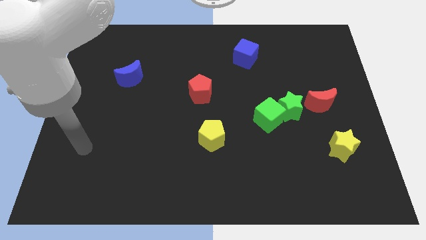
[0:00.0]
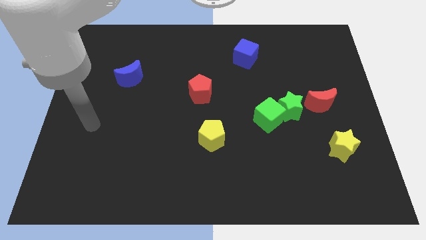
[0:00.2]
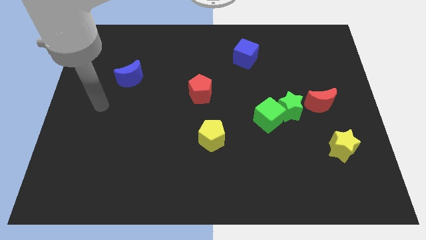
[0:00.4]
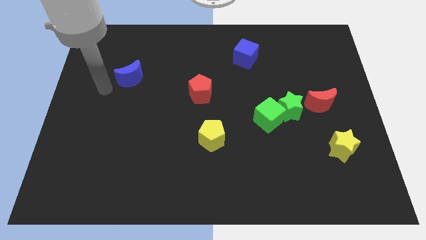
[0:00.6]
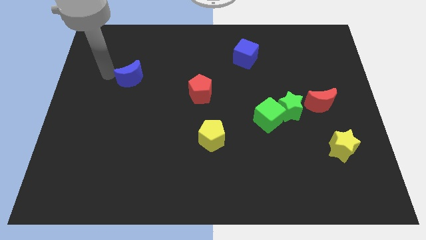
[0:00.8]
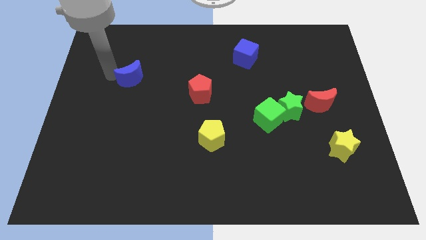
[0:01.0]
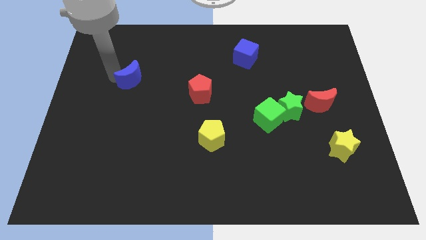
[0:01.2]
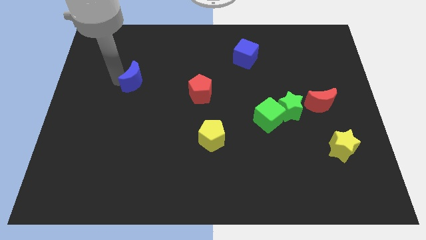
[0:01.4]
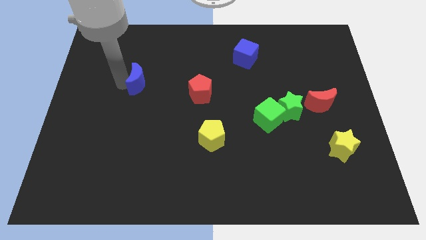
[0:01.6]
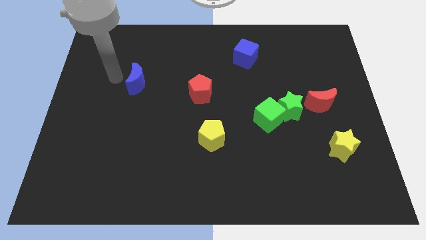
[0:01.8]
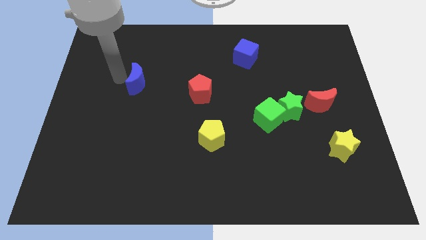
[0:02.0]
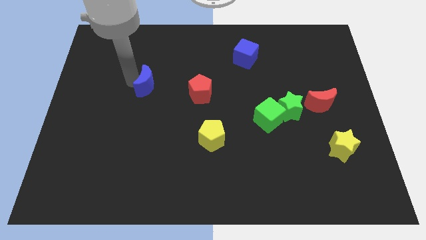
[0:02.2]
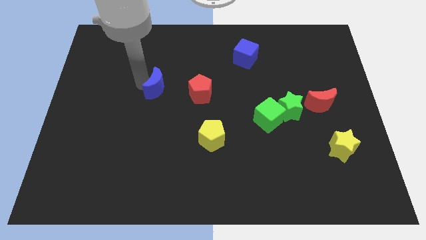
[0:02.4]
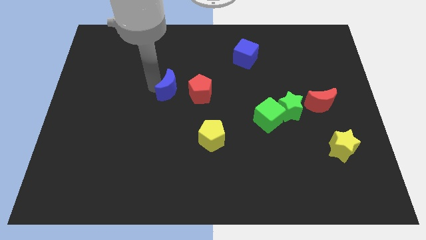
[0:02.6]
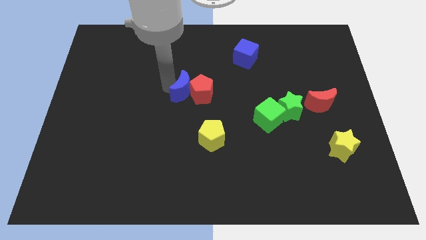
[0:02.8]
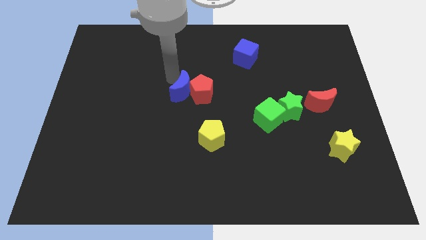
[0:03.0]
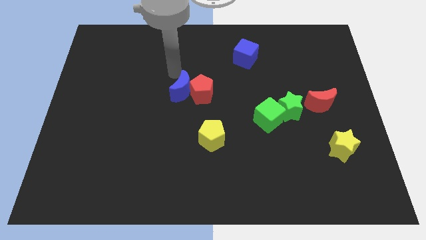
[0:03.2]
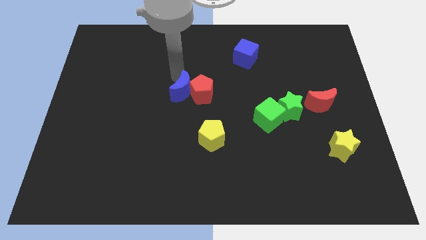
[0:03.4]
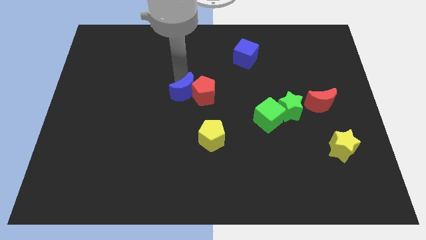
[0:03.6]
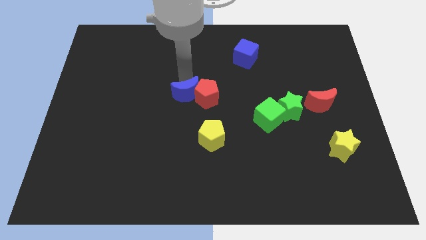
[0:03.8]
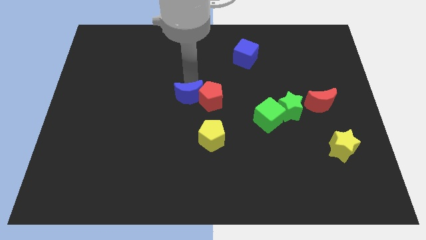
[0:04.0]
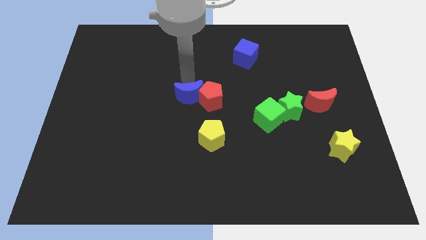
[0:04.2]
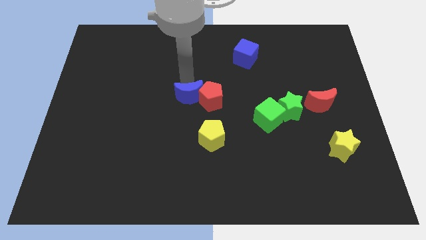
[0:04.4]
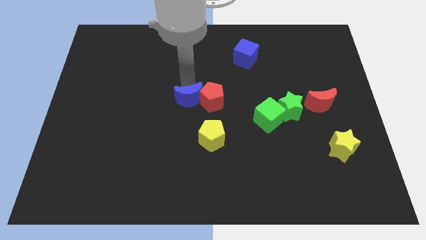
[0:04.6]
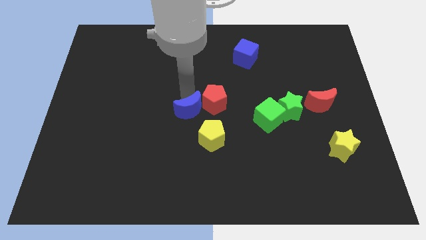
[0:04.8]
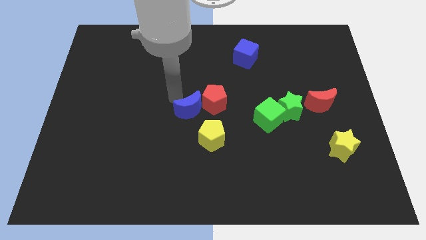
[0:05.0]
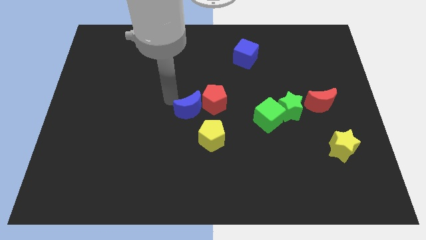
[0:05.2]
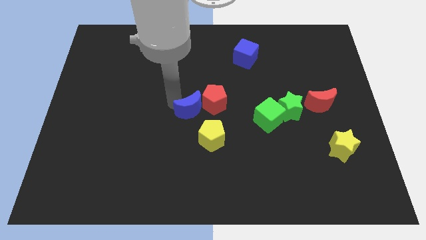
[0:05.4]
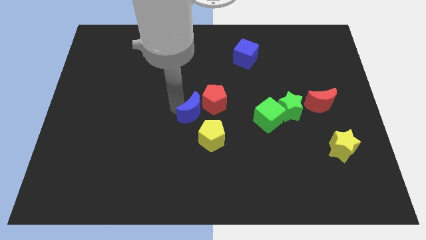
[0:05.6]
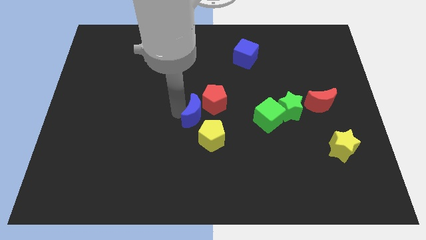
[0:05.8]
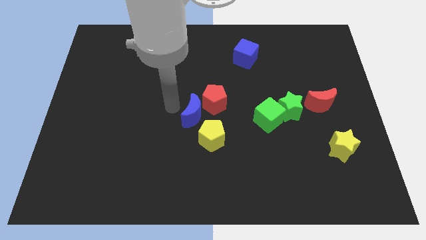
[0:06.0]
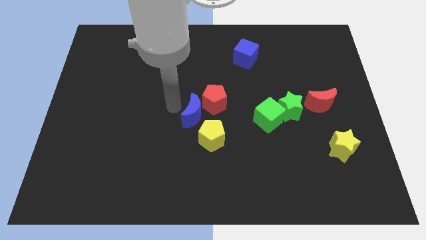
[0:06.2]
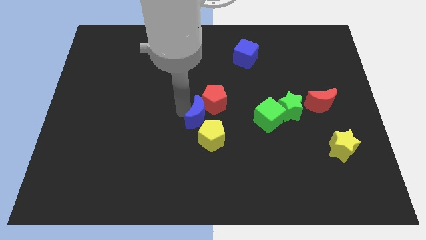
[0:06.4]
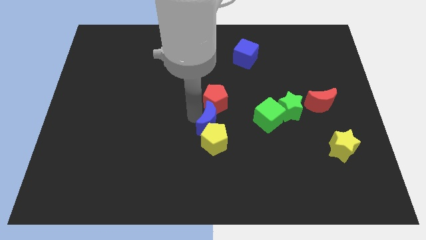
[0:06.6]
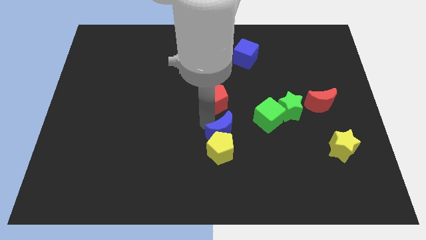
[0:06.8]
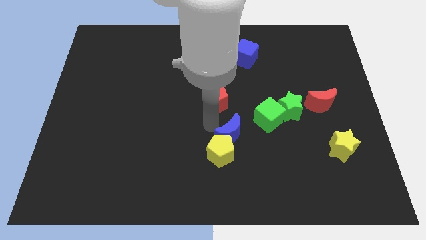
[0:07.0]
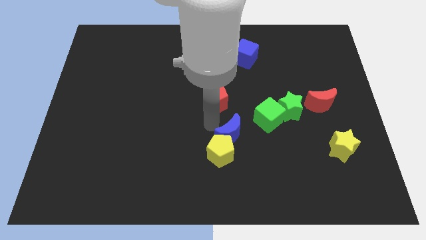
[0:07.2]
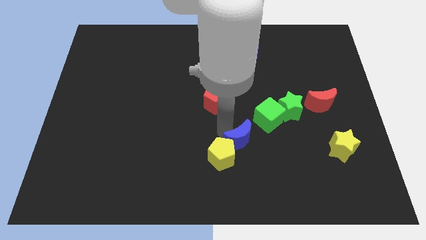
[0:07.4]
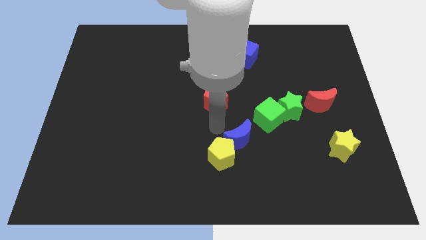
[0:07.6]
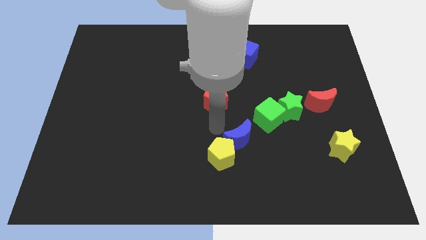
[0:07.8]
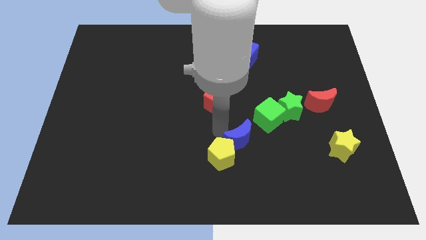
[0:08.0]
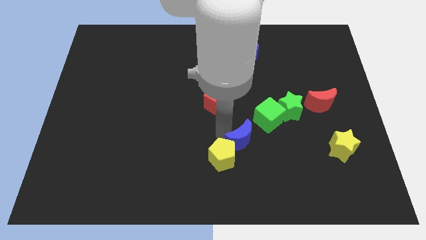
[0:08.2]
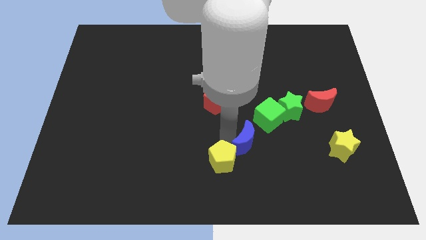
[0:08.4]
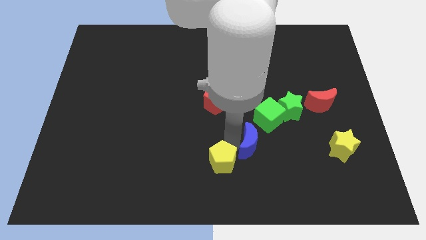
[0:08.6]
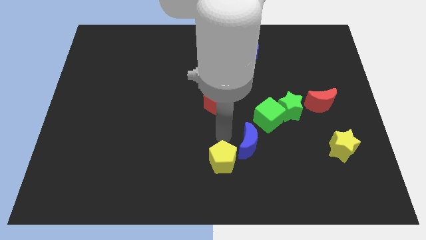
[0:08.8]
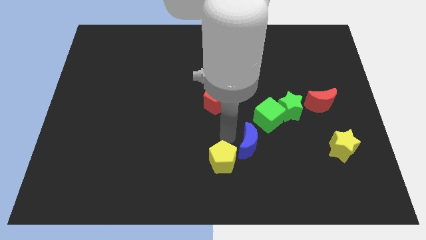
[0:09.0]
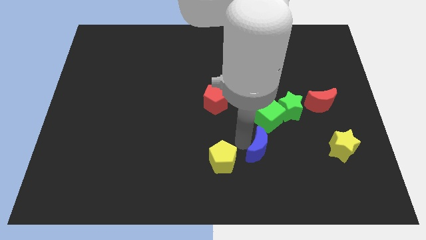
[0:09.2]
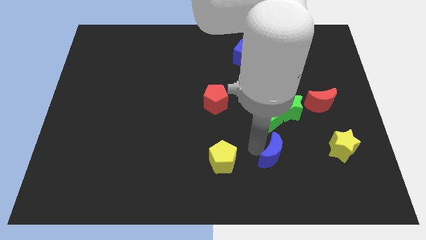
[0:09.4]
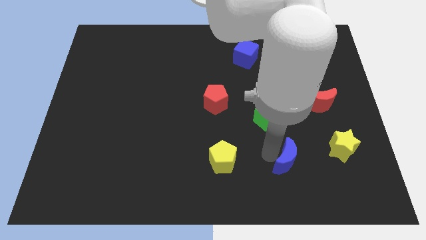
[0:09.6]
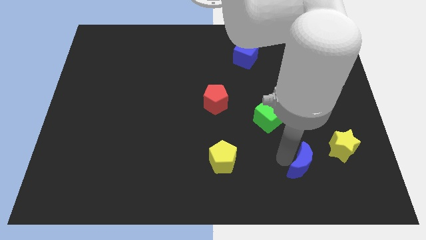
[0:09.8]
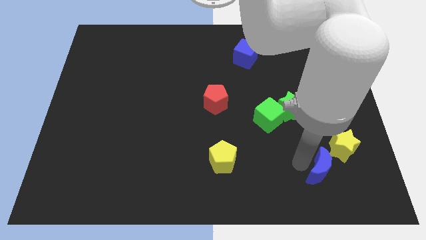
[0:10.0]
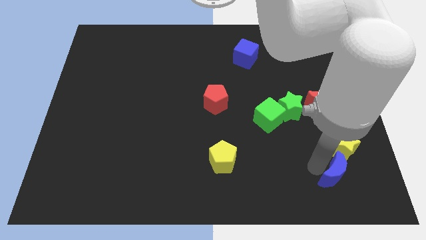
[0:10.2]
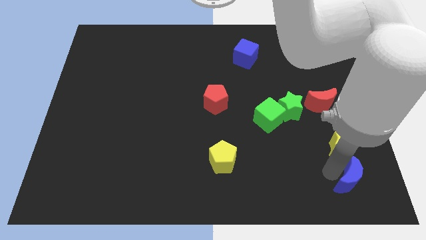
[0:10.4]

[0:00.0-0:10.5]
move the blue moon to the bottom right of the board

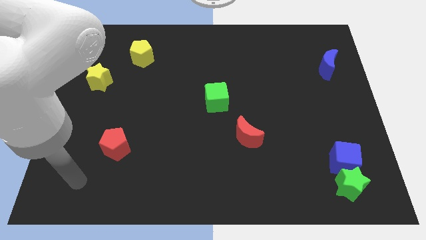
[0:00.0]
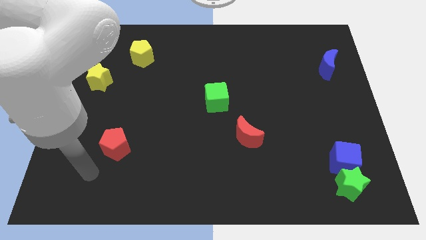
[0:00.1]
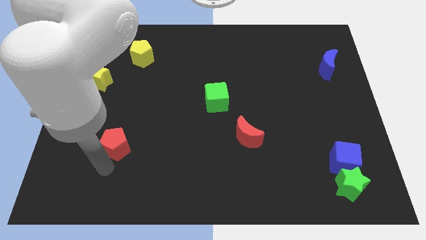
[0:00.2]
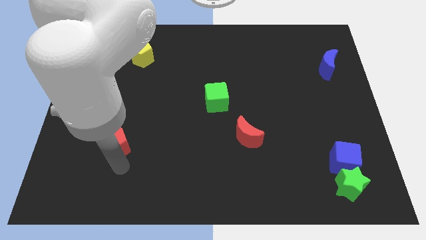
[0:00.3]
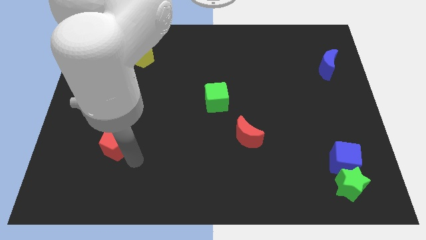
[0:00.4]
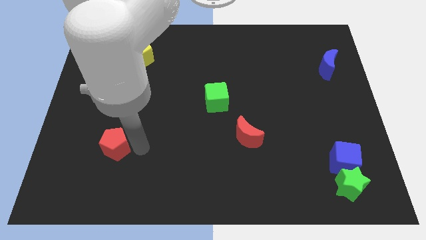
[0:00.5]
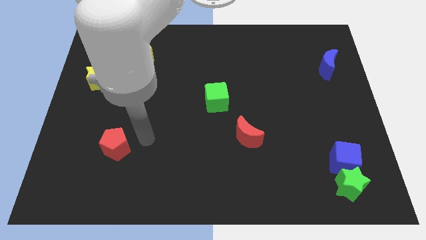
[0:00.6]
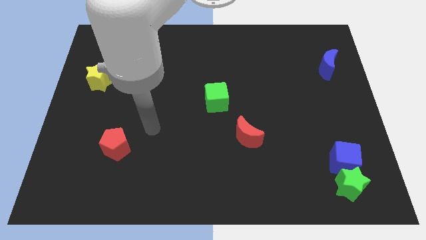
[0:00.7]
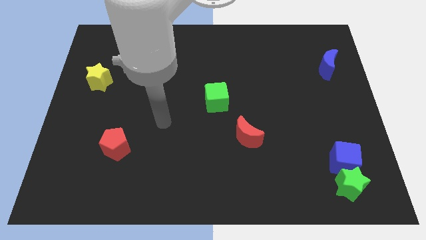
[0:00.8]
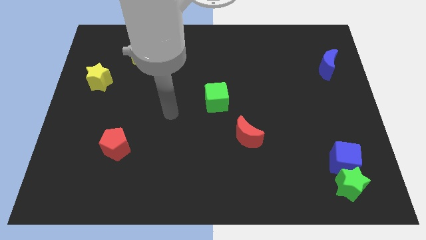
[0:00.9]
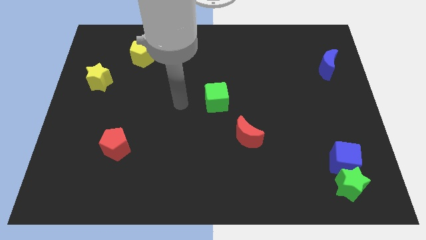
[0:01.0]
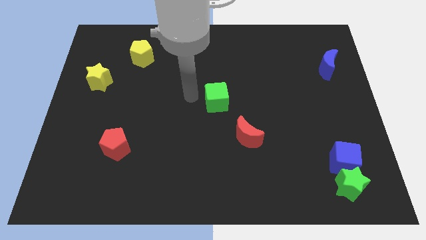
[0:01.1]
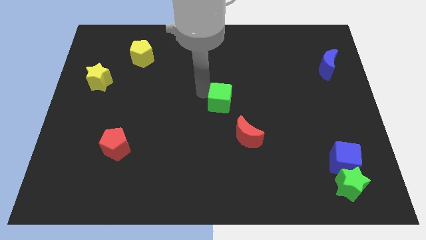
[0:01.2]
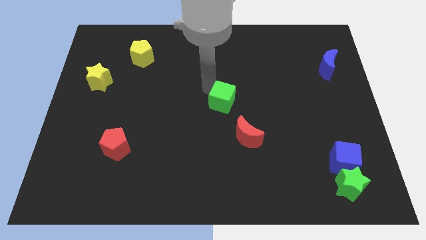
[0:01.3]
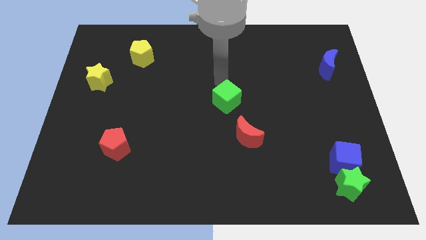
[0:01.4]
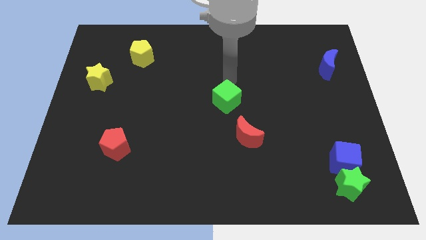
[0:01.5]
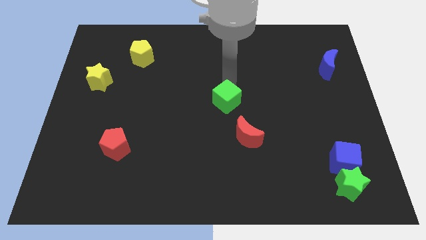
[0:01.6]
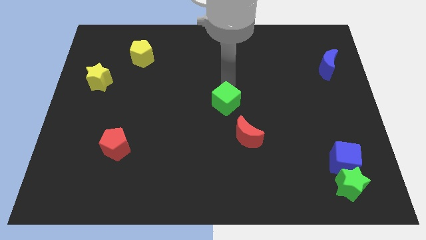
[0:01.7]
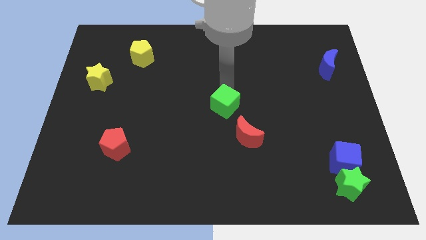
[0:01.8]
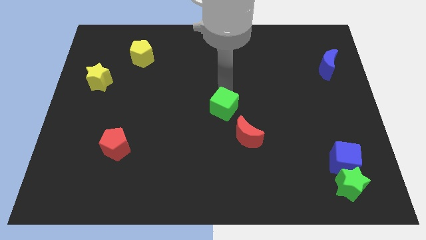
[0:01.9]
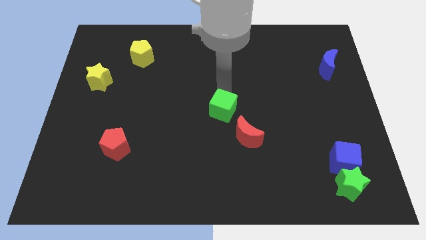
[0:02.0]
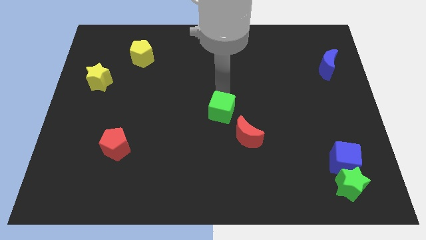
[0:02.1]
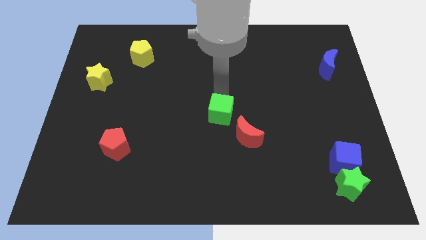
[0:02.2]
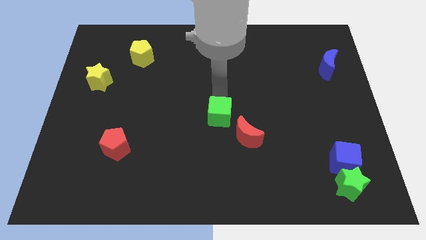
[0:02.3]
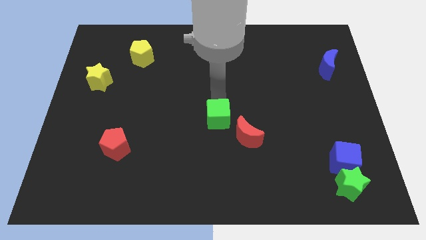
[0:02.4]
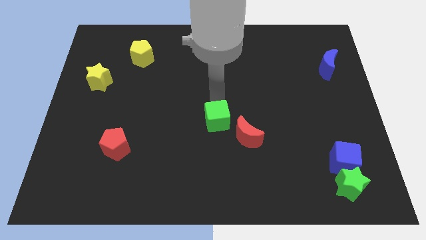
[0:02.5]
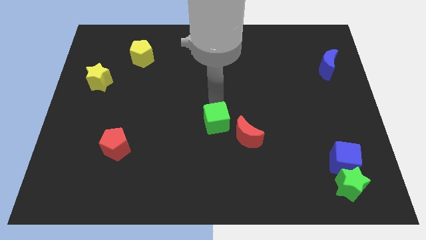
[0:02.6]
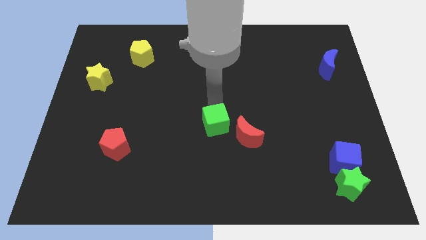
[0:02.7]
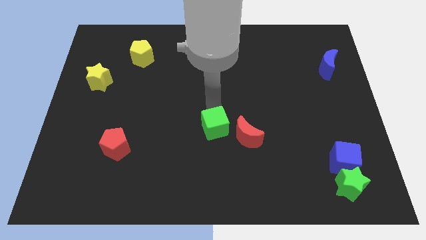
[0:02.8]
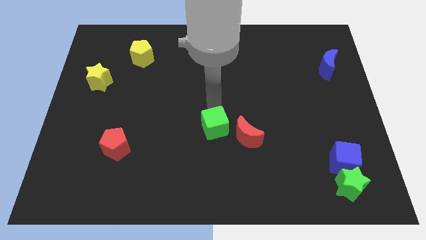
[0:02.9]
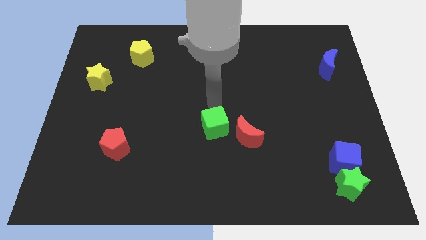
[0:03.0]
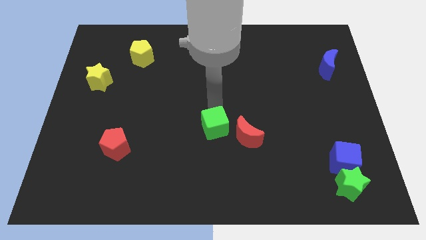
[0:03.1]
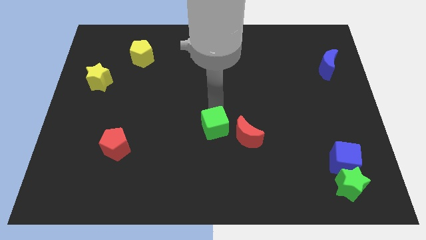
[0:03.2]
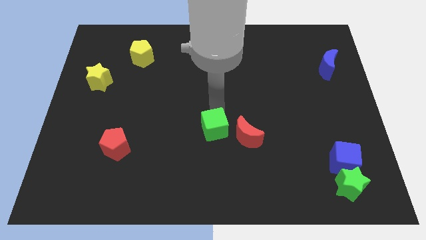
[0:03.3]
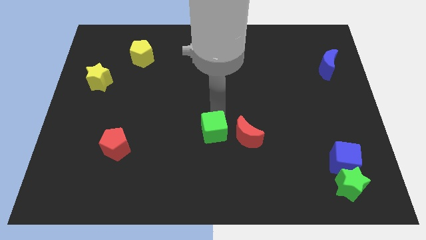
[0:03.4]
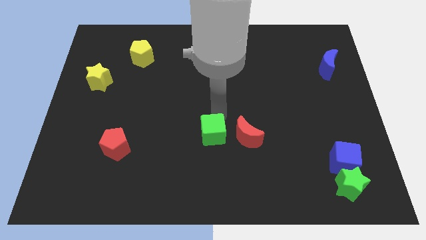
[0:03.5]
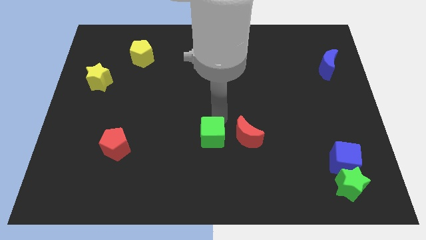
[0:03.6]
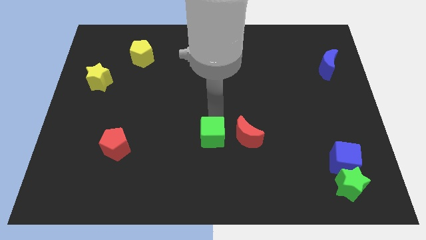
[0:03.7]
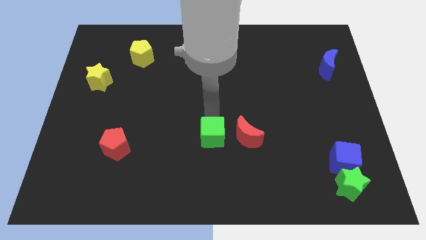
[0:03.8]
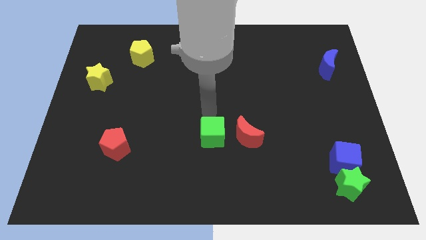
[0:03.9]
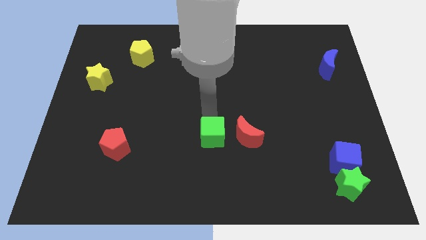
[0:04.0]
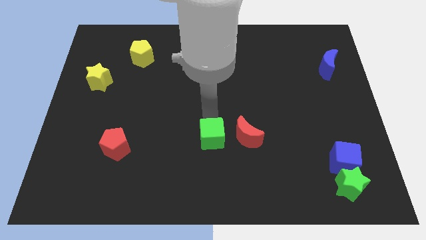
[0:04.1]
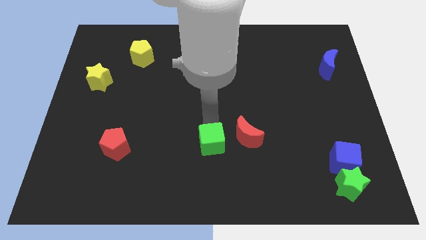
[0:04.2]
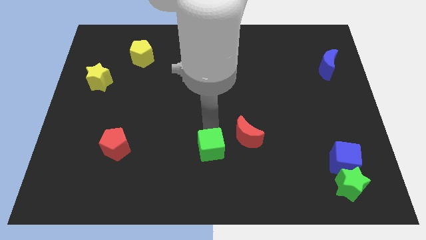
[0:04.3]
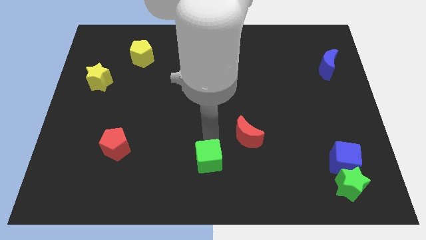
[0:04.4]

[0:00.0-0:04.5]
slide the green cube to the bottom side
